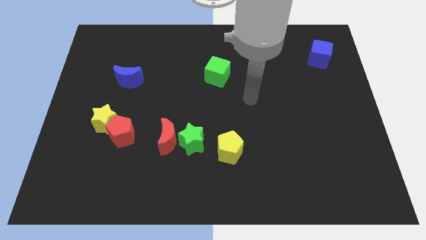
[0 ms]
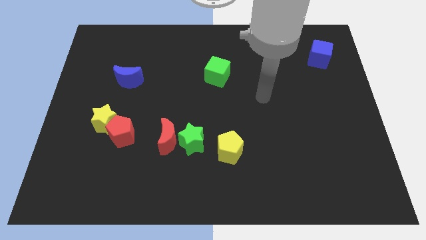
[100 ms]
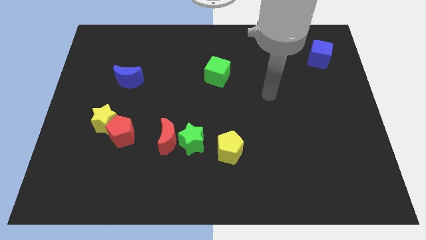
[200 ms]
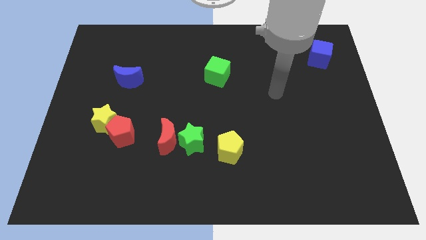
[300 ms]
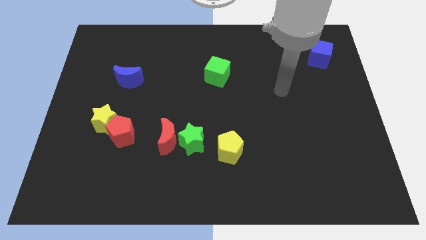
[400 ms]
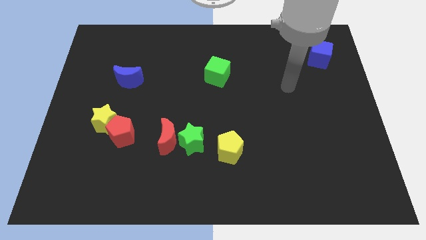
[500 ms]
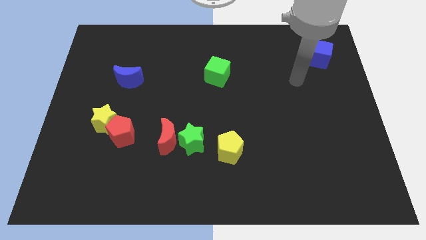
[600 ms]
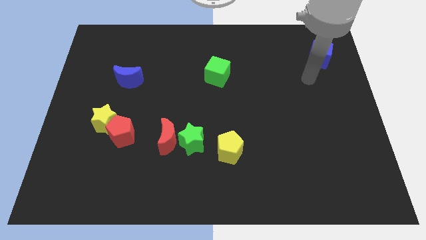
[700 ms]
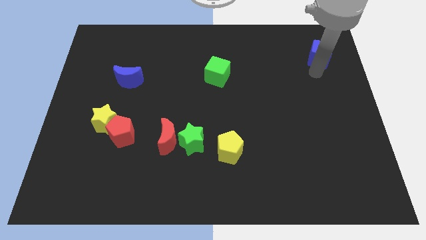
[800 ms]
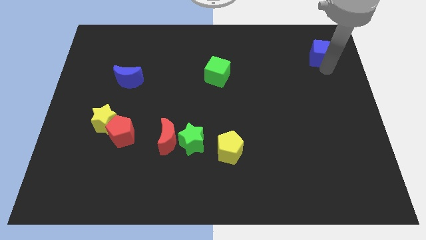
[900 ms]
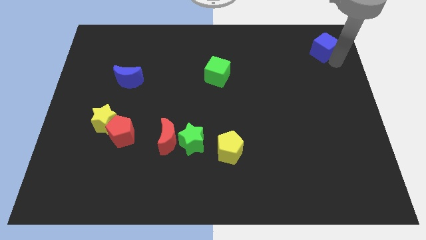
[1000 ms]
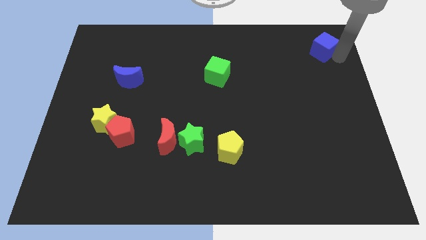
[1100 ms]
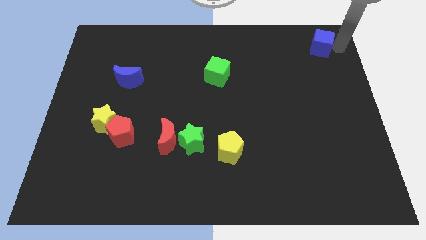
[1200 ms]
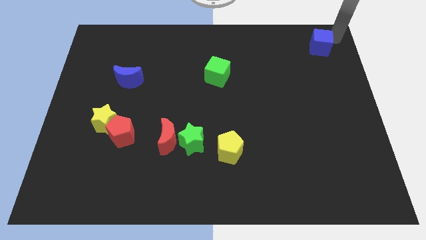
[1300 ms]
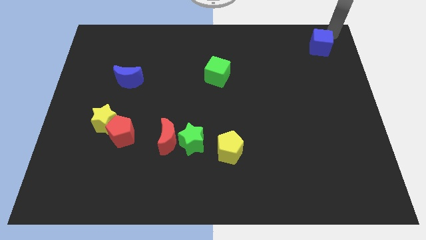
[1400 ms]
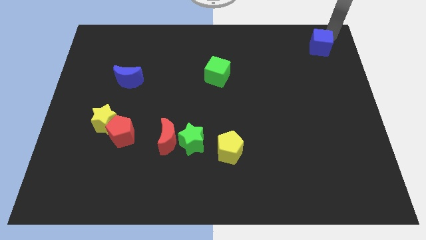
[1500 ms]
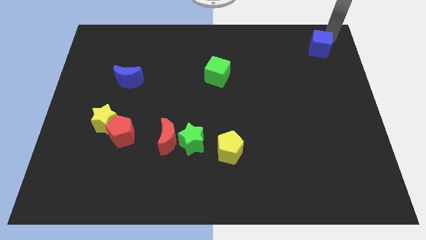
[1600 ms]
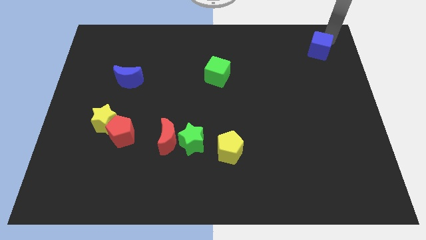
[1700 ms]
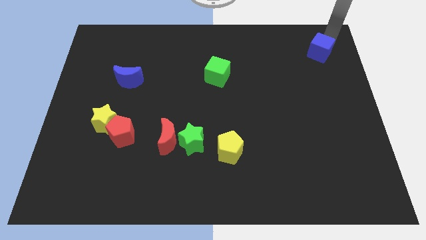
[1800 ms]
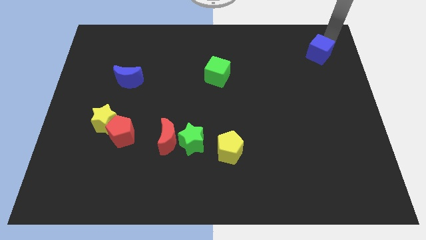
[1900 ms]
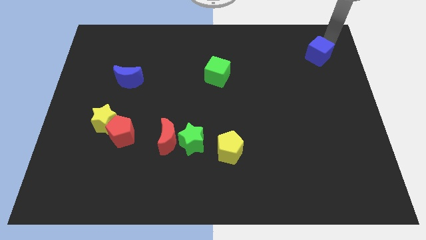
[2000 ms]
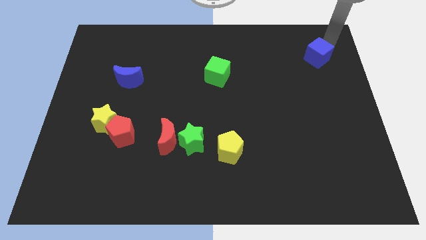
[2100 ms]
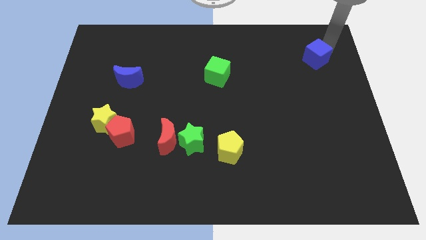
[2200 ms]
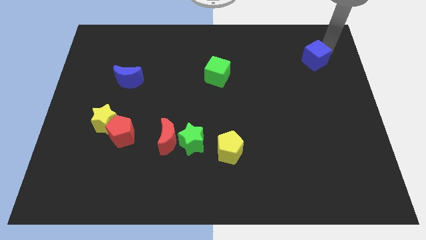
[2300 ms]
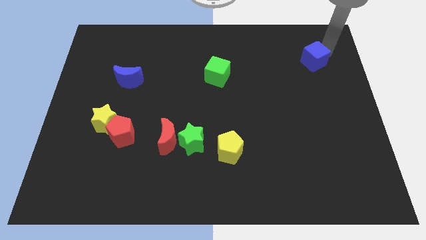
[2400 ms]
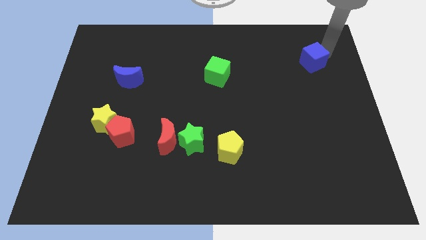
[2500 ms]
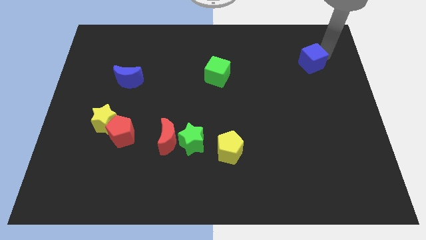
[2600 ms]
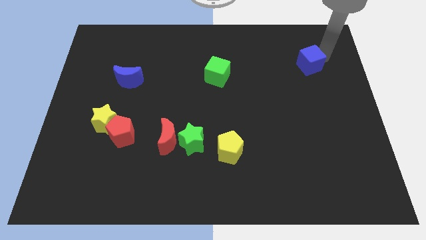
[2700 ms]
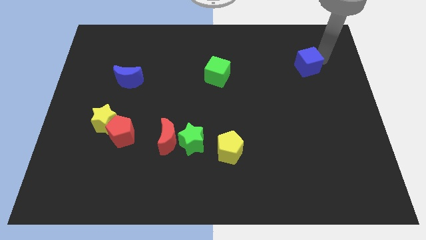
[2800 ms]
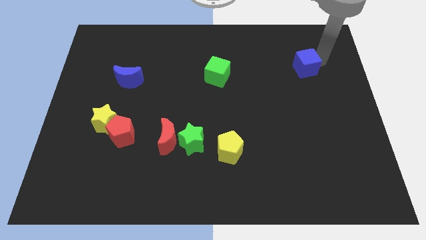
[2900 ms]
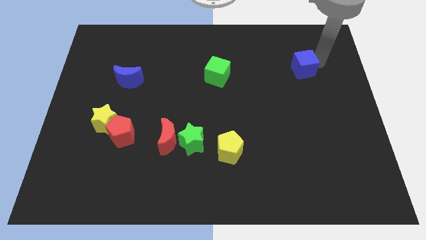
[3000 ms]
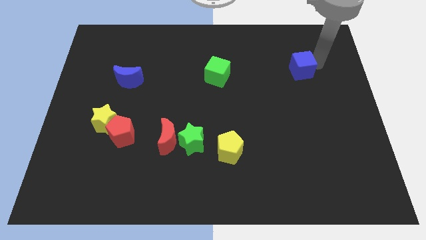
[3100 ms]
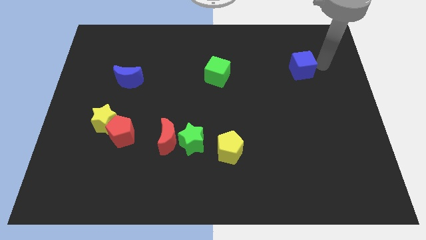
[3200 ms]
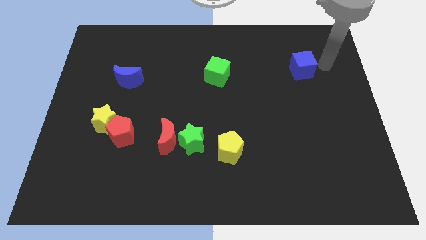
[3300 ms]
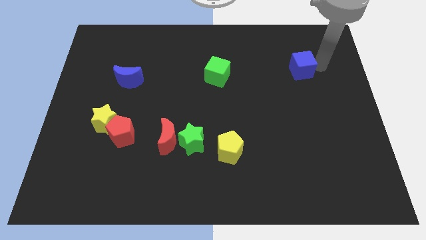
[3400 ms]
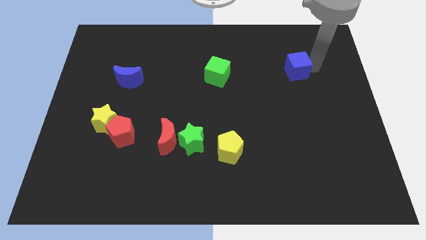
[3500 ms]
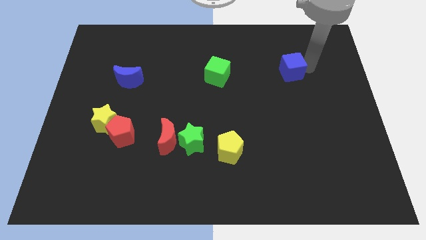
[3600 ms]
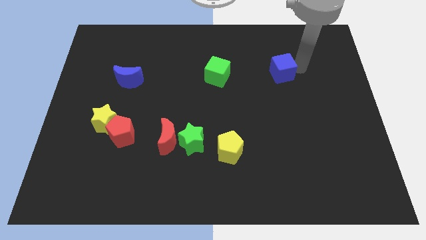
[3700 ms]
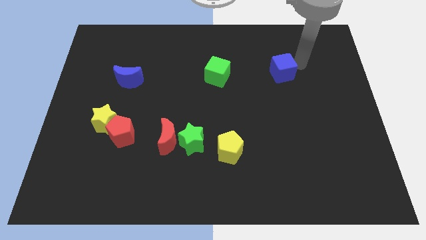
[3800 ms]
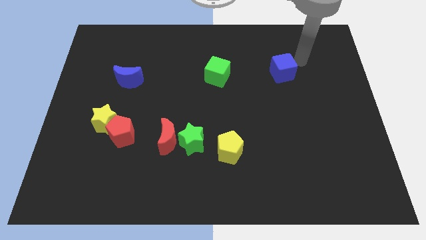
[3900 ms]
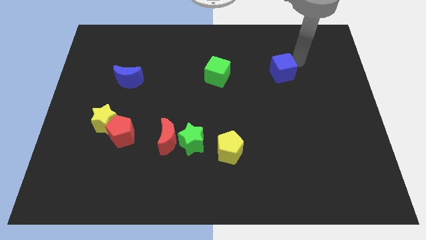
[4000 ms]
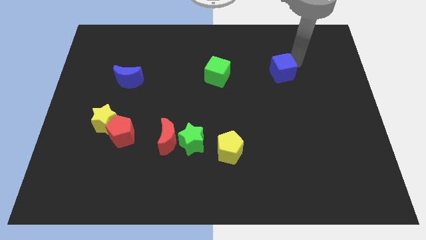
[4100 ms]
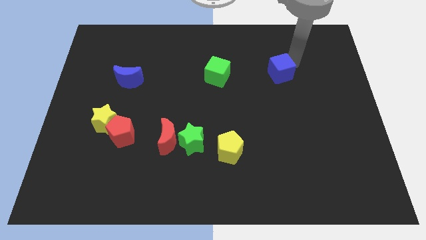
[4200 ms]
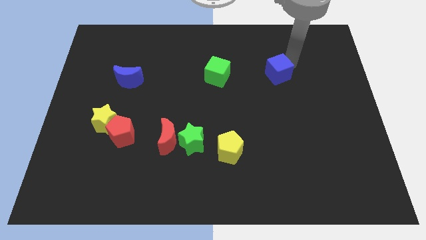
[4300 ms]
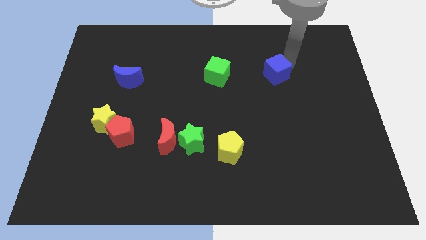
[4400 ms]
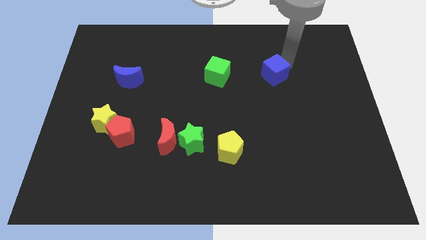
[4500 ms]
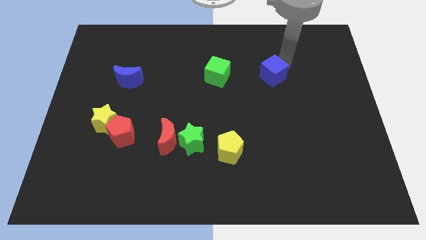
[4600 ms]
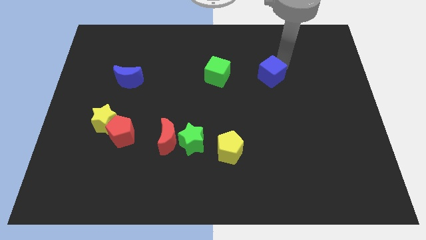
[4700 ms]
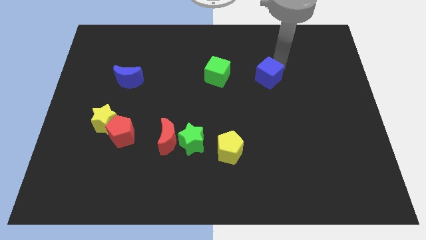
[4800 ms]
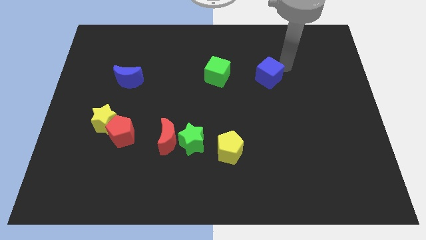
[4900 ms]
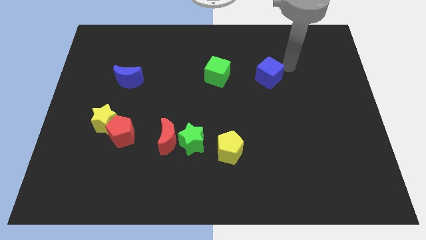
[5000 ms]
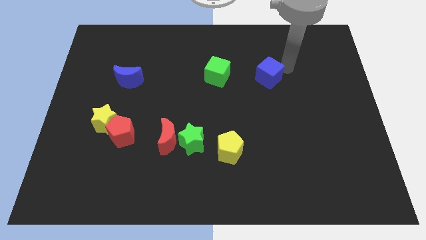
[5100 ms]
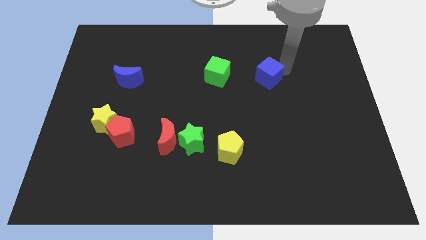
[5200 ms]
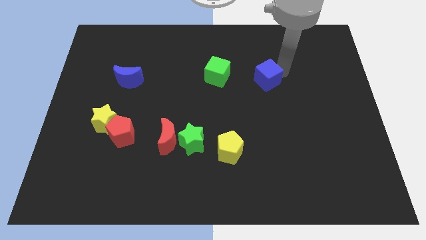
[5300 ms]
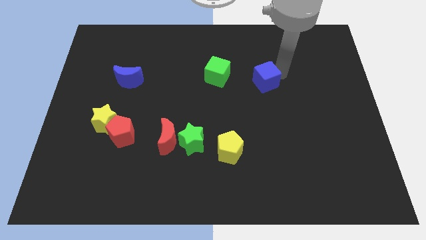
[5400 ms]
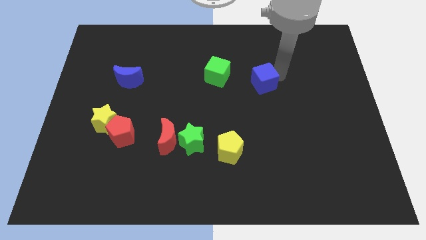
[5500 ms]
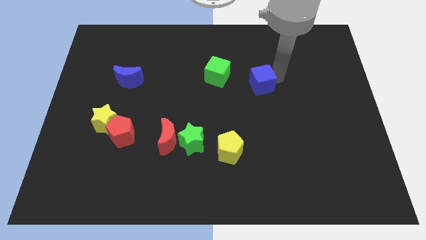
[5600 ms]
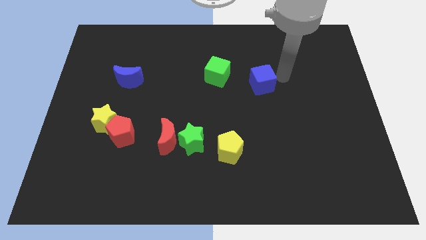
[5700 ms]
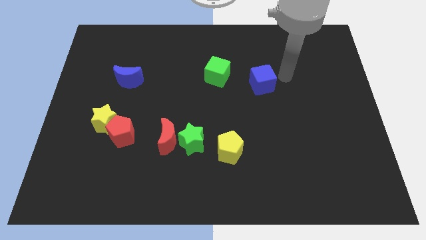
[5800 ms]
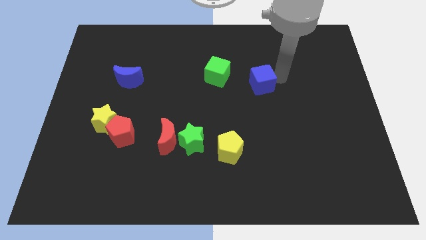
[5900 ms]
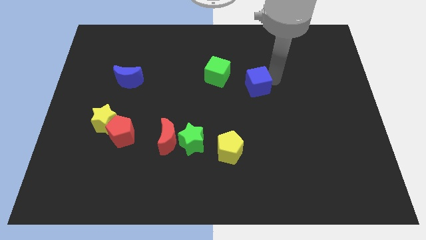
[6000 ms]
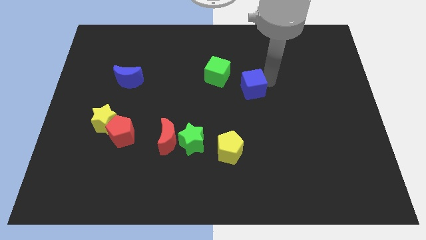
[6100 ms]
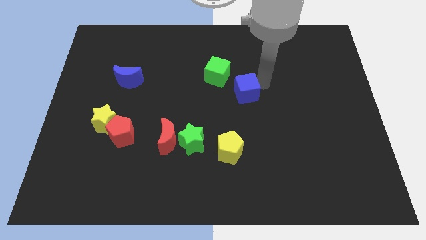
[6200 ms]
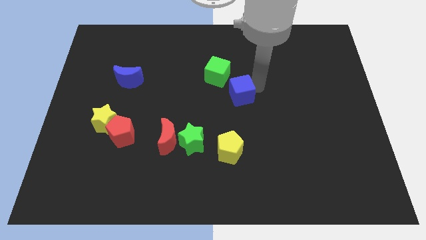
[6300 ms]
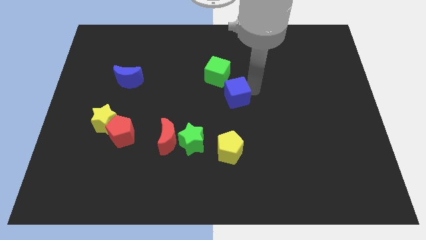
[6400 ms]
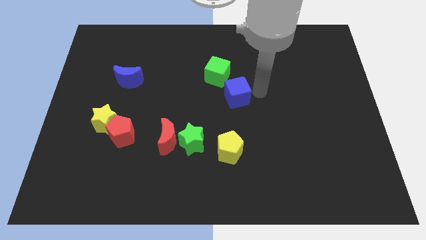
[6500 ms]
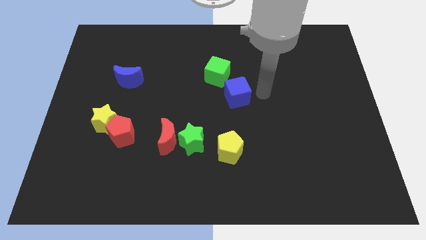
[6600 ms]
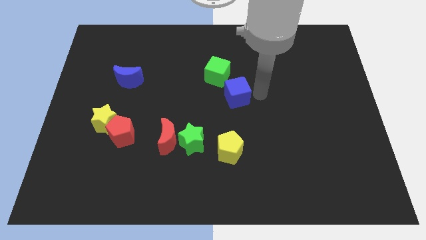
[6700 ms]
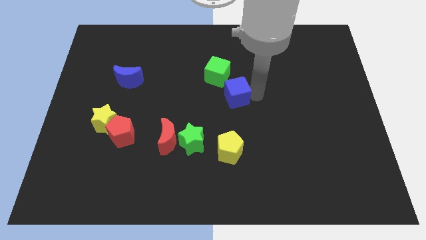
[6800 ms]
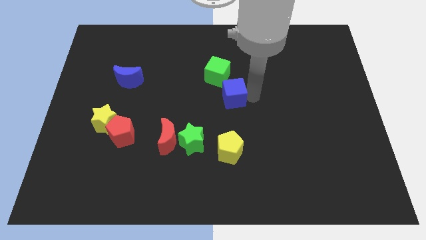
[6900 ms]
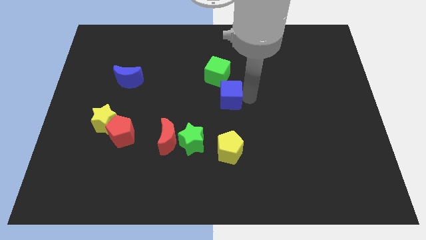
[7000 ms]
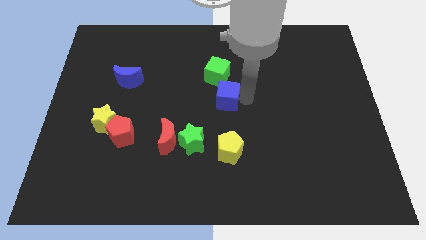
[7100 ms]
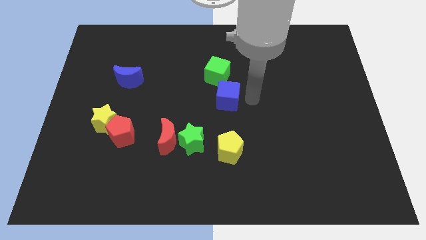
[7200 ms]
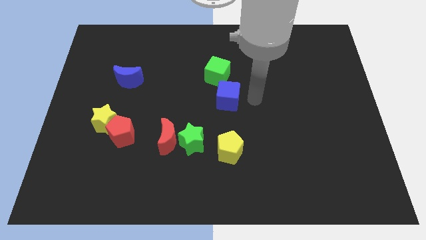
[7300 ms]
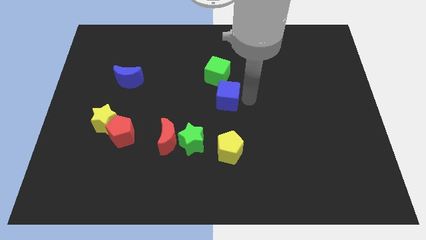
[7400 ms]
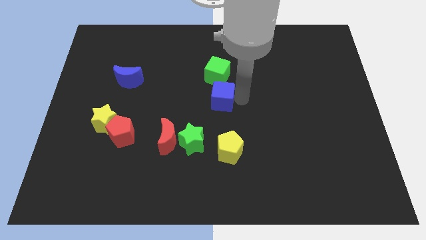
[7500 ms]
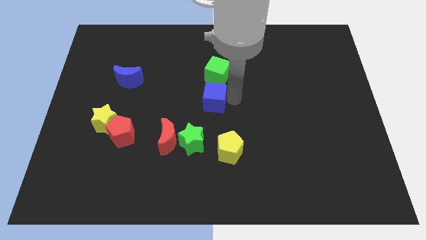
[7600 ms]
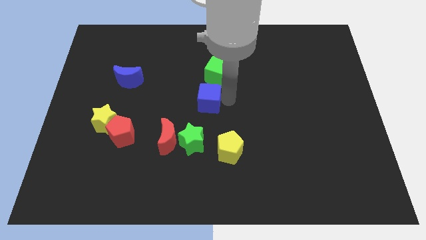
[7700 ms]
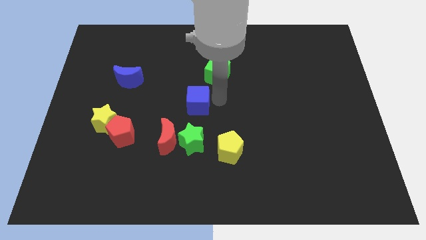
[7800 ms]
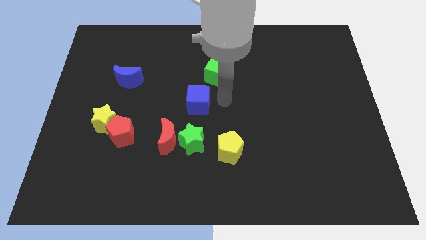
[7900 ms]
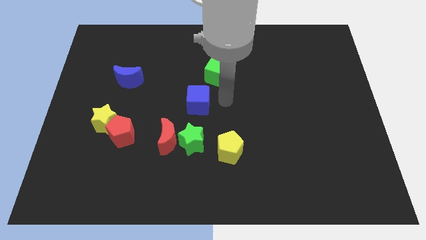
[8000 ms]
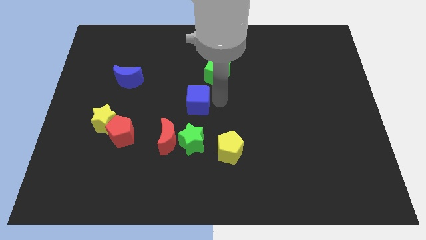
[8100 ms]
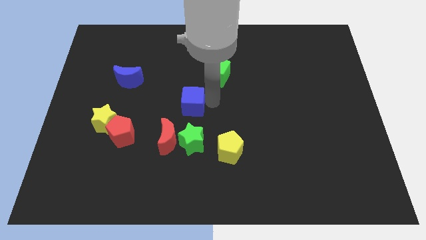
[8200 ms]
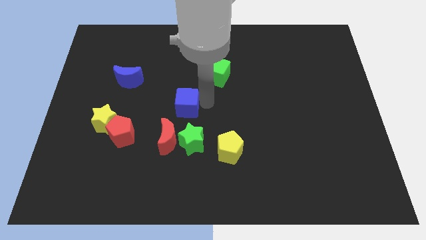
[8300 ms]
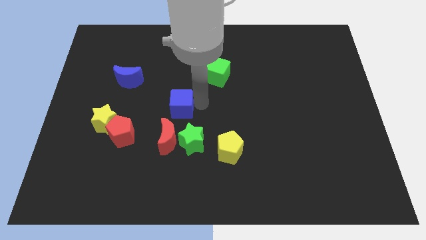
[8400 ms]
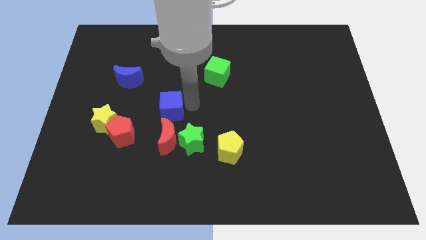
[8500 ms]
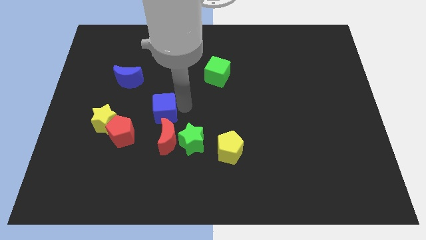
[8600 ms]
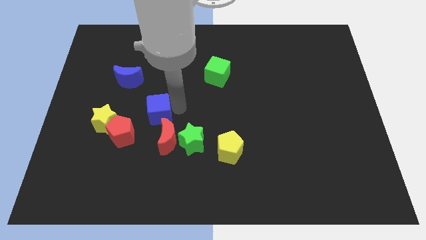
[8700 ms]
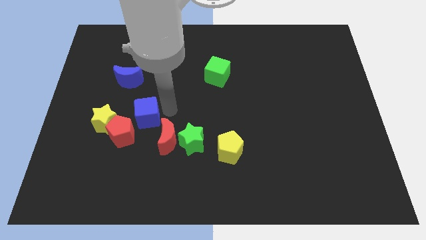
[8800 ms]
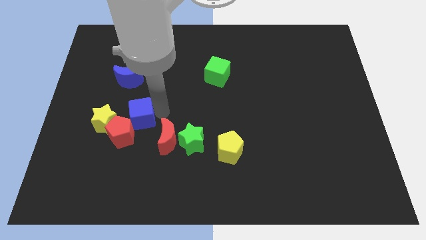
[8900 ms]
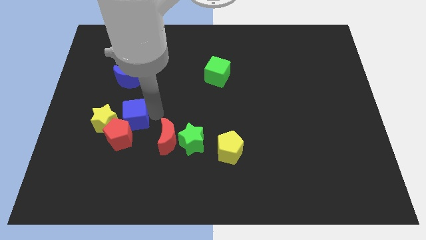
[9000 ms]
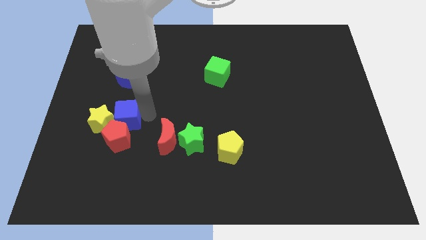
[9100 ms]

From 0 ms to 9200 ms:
put the blue cube to the yellow star
